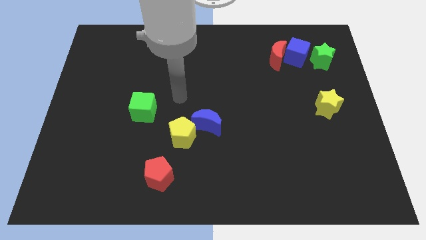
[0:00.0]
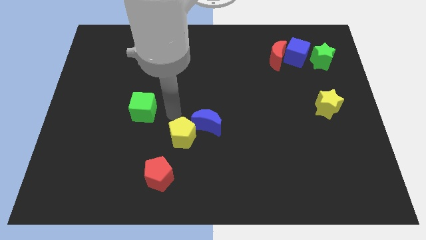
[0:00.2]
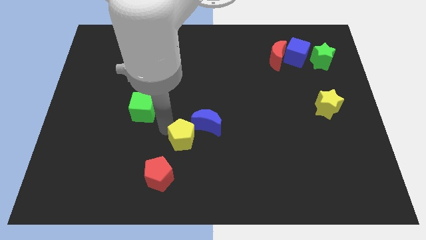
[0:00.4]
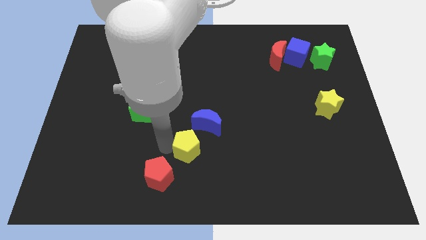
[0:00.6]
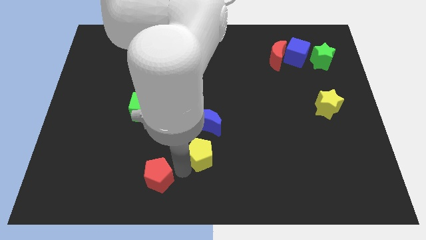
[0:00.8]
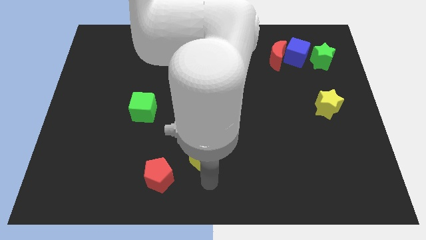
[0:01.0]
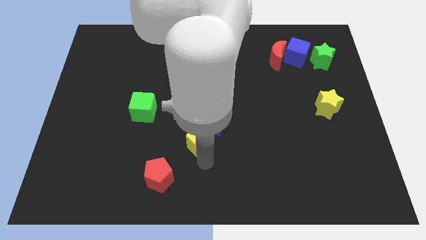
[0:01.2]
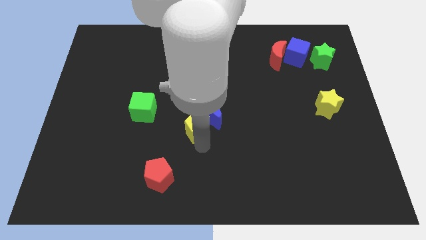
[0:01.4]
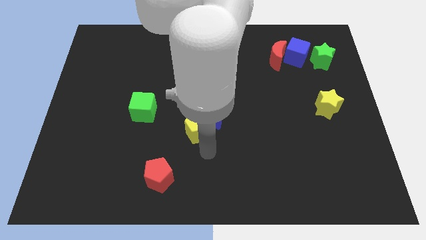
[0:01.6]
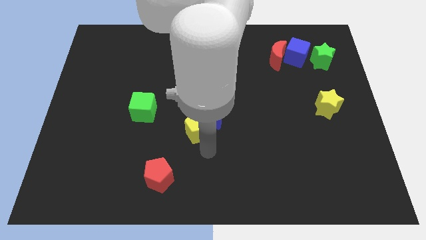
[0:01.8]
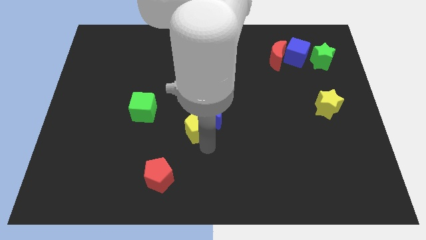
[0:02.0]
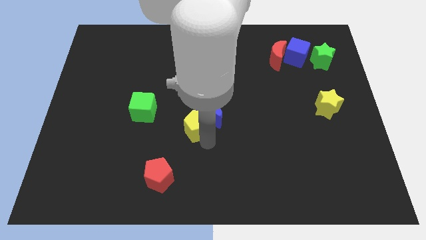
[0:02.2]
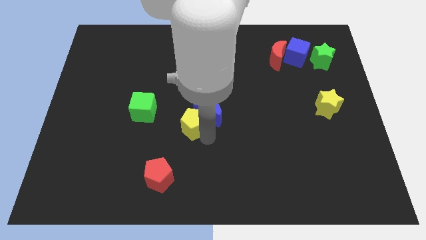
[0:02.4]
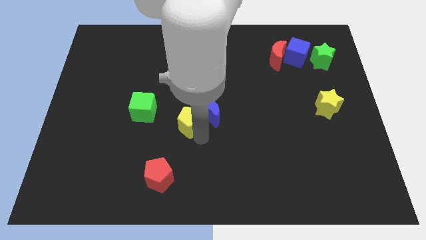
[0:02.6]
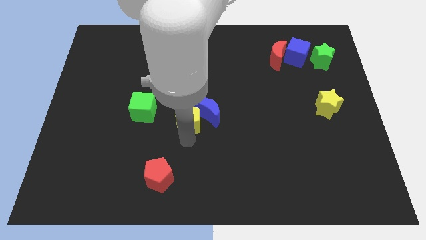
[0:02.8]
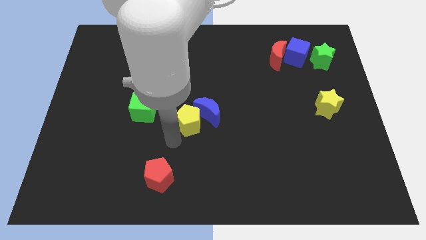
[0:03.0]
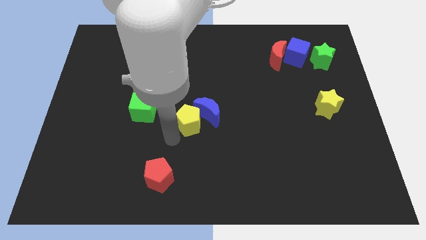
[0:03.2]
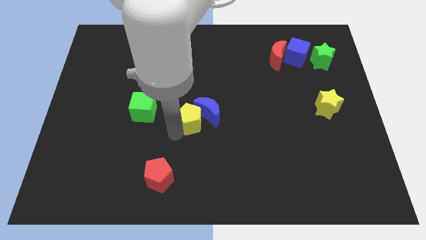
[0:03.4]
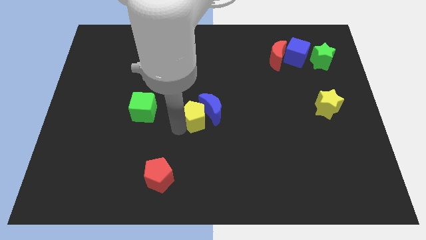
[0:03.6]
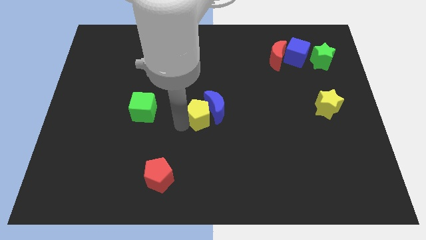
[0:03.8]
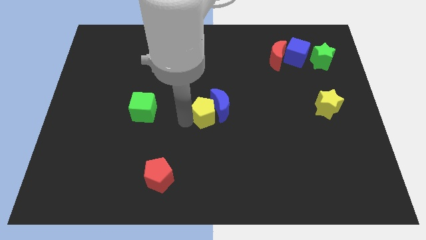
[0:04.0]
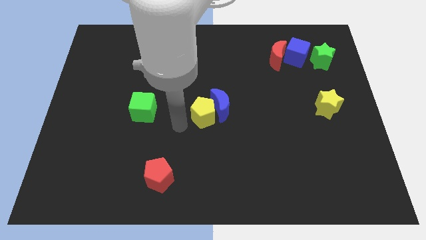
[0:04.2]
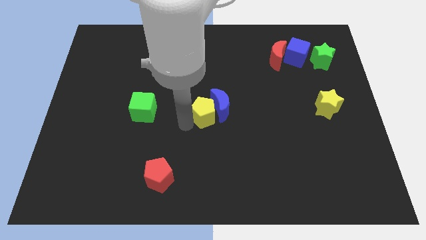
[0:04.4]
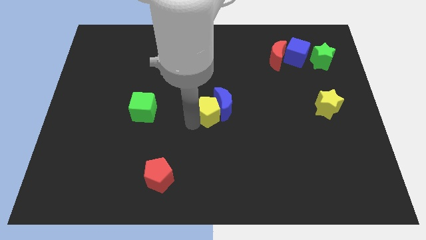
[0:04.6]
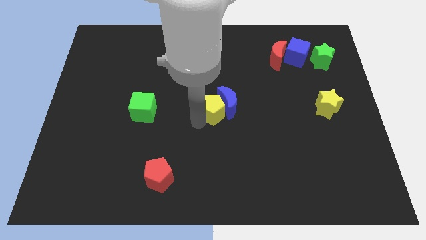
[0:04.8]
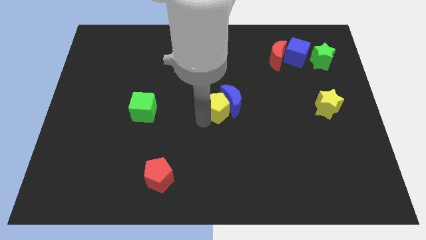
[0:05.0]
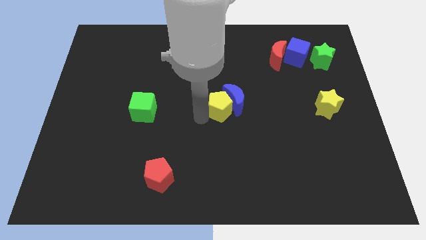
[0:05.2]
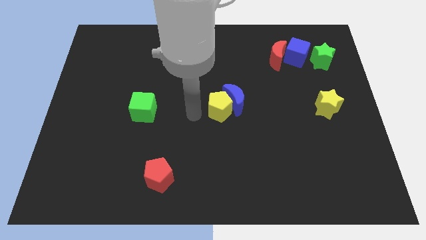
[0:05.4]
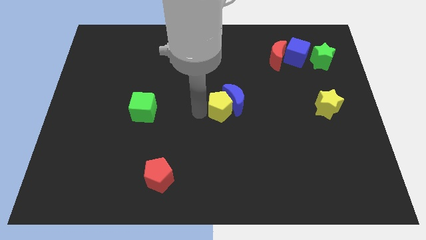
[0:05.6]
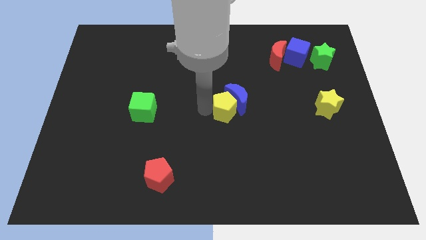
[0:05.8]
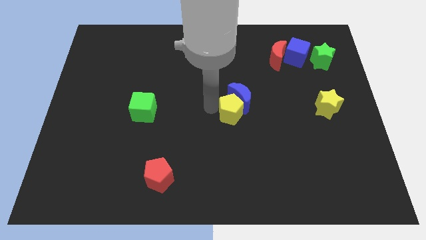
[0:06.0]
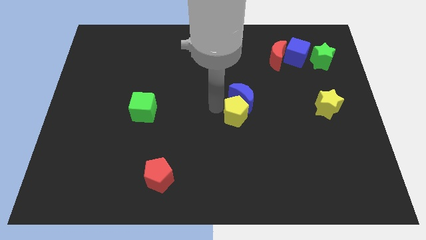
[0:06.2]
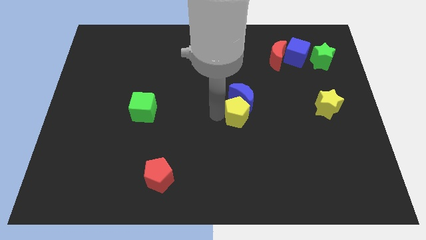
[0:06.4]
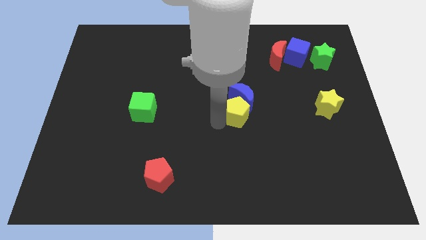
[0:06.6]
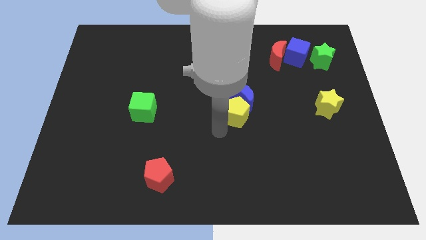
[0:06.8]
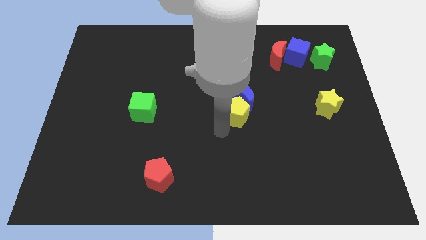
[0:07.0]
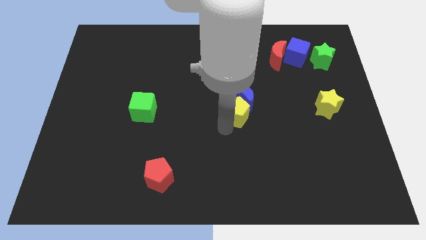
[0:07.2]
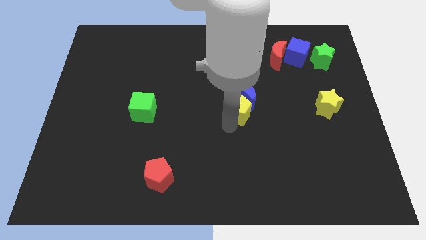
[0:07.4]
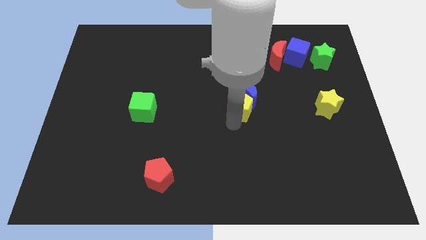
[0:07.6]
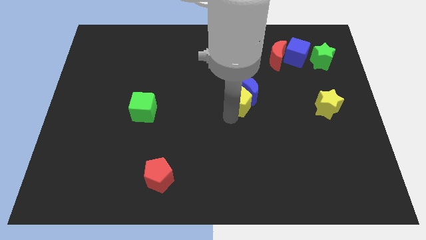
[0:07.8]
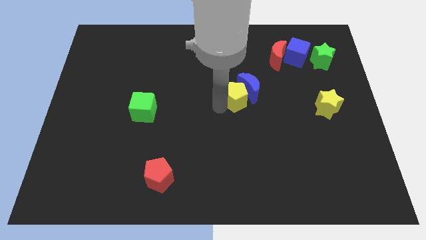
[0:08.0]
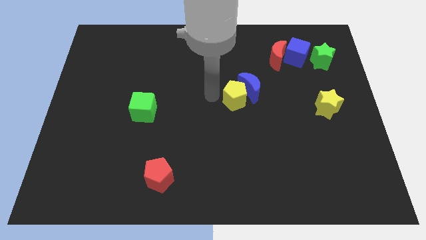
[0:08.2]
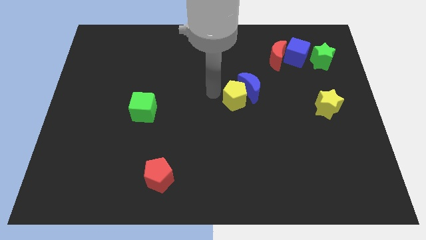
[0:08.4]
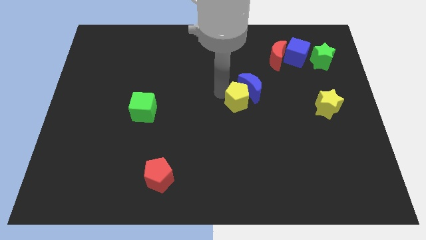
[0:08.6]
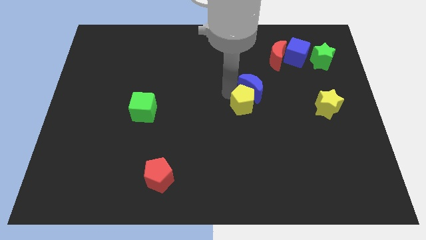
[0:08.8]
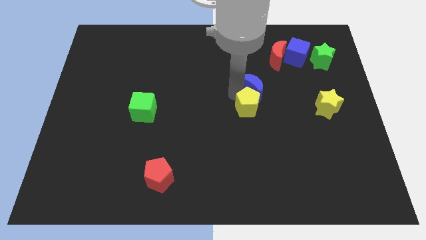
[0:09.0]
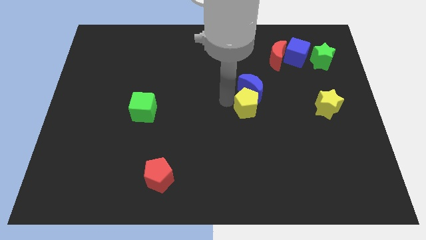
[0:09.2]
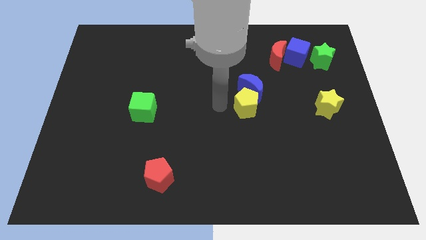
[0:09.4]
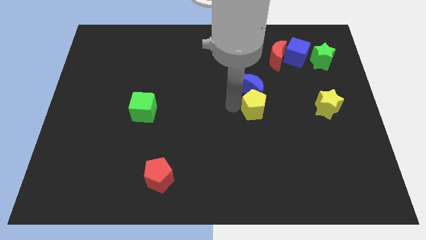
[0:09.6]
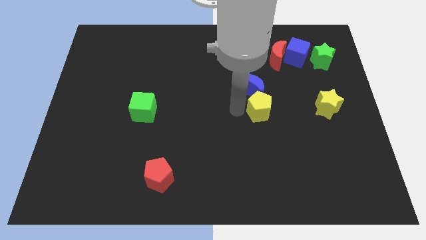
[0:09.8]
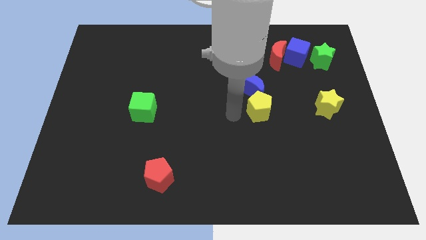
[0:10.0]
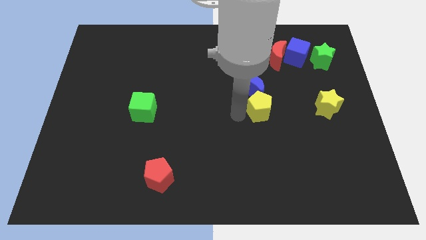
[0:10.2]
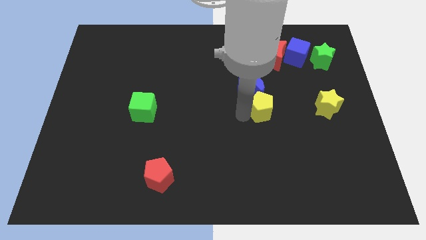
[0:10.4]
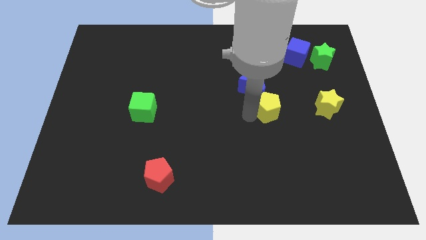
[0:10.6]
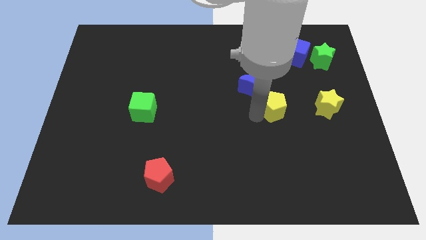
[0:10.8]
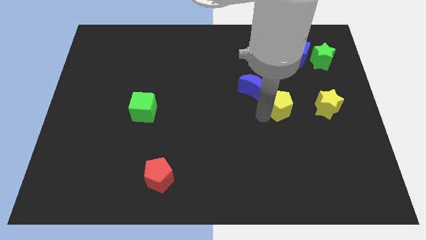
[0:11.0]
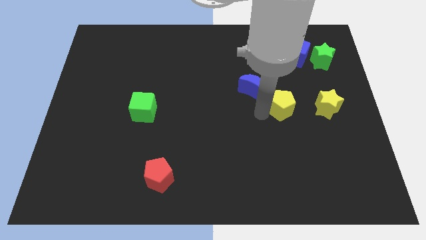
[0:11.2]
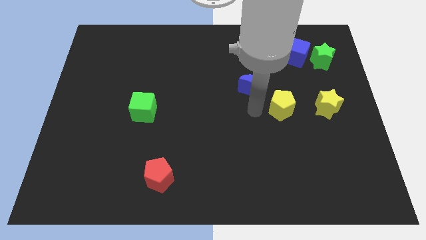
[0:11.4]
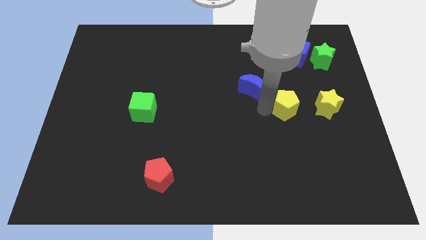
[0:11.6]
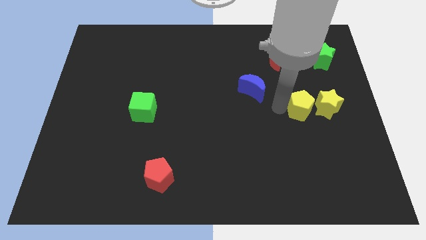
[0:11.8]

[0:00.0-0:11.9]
move the yellow pentagon to the yellow star

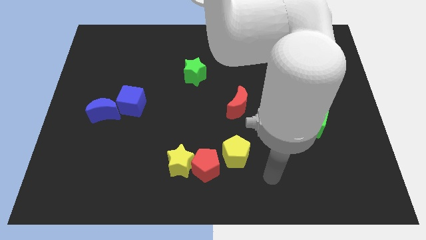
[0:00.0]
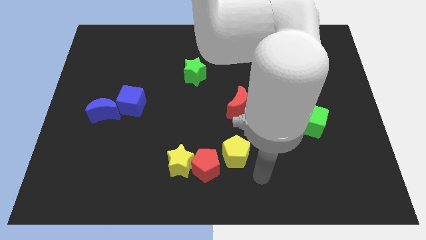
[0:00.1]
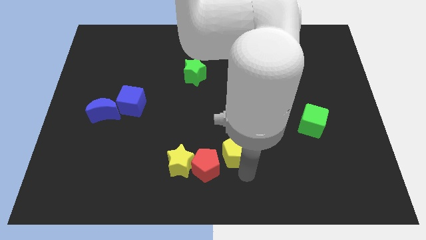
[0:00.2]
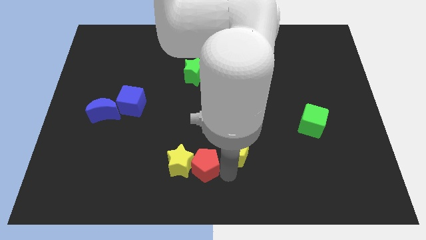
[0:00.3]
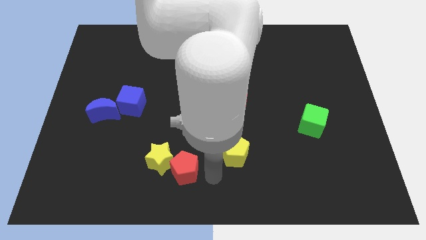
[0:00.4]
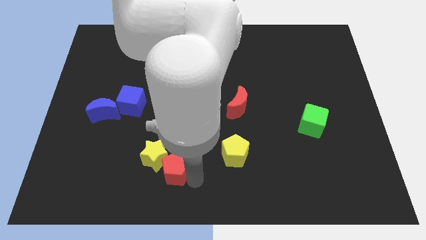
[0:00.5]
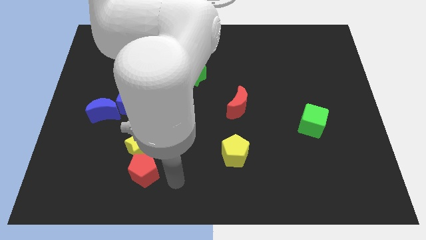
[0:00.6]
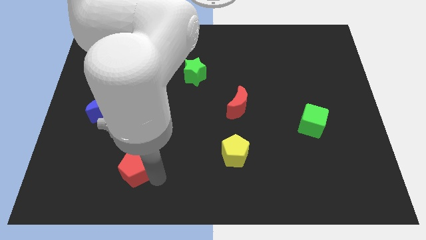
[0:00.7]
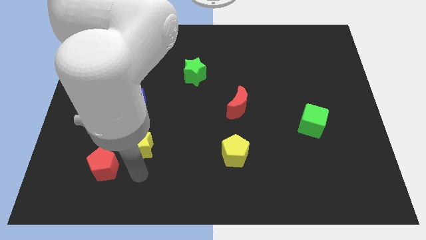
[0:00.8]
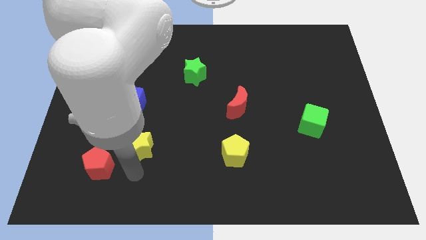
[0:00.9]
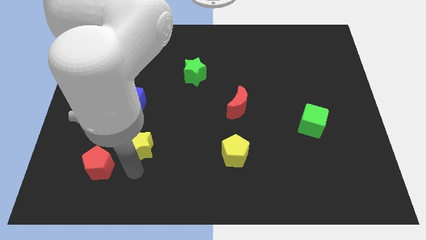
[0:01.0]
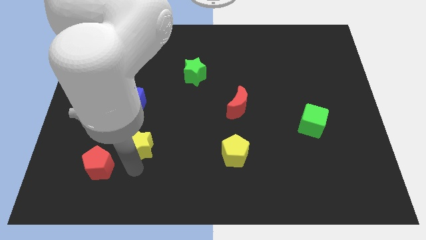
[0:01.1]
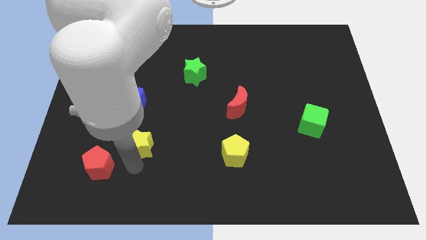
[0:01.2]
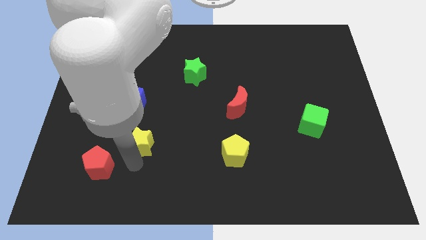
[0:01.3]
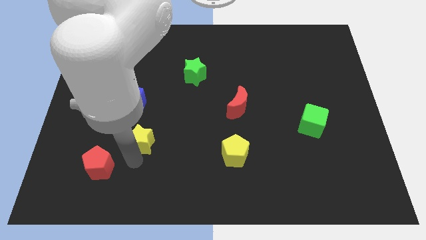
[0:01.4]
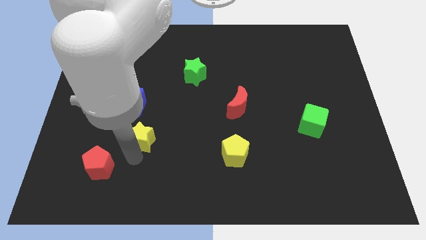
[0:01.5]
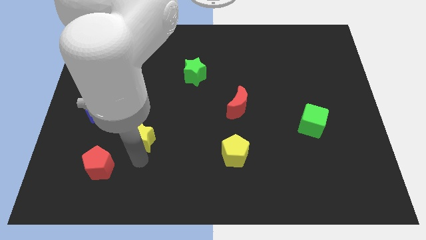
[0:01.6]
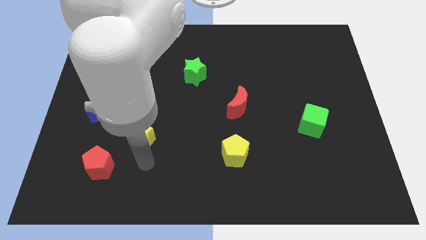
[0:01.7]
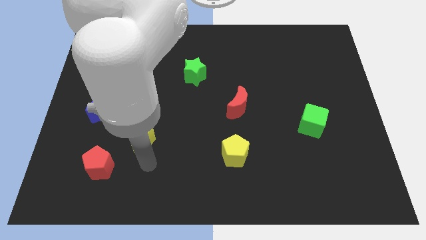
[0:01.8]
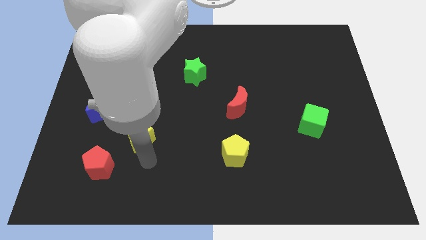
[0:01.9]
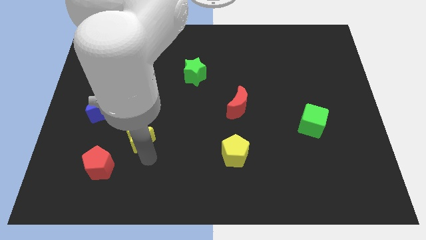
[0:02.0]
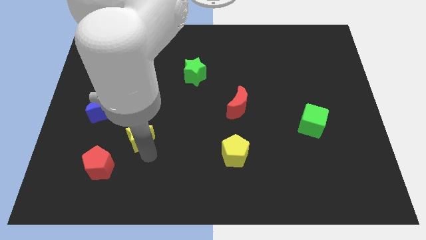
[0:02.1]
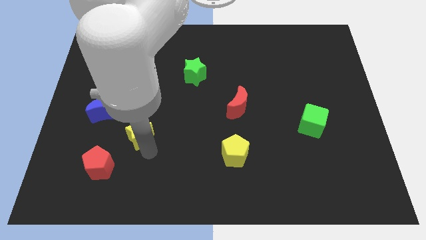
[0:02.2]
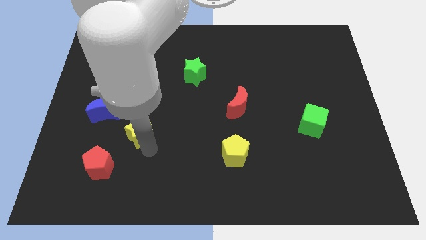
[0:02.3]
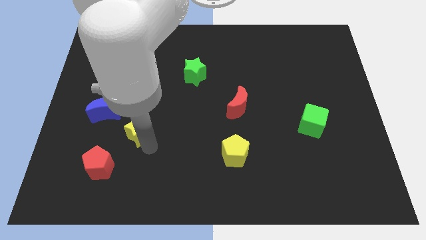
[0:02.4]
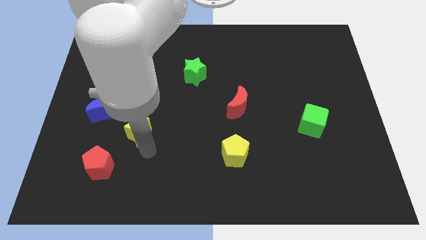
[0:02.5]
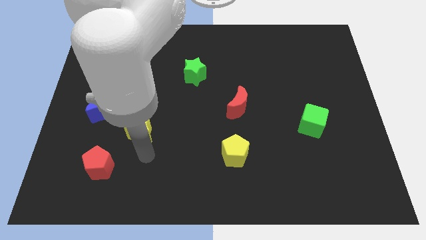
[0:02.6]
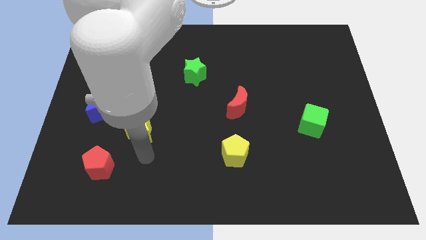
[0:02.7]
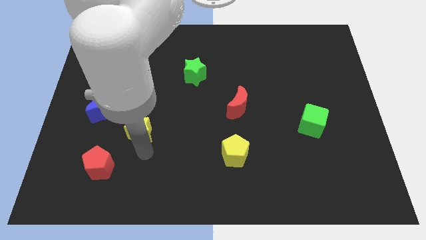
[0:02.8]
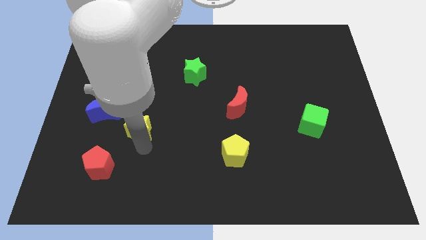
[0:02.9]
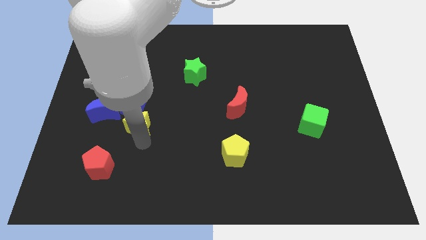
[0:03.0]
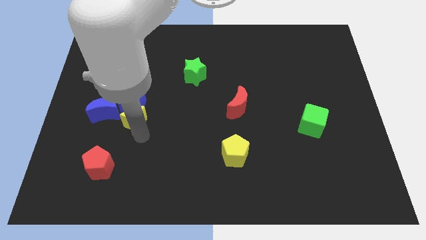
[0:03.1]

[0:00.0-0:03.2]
put the yellow star towards the blue cube
